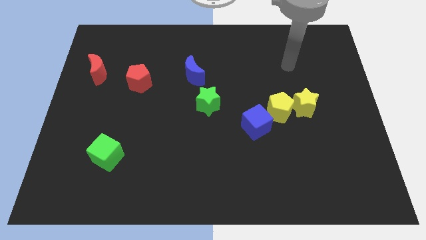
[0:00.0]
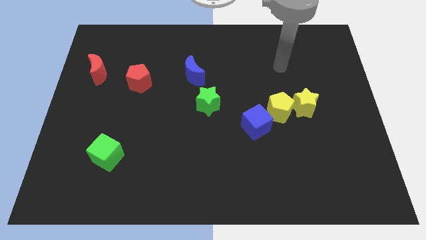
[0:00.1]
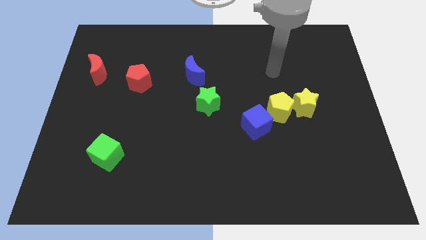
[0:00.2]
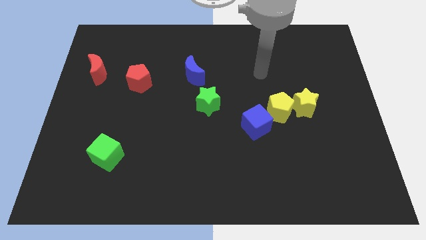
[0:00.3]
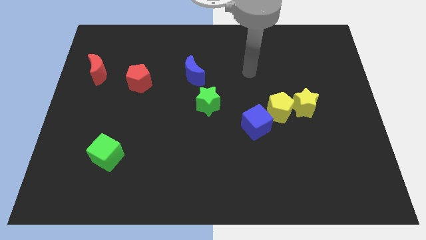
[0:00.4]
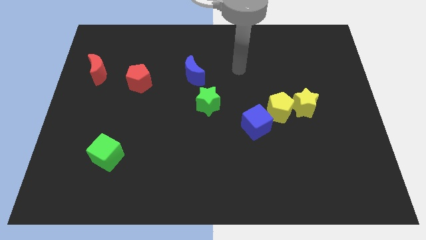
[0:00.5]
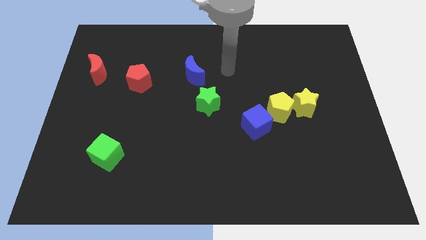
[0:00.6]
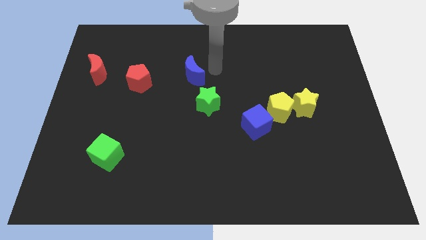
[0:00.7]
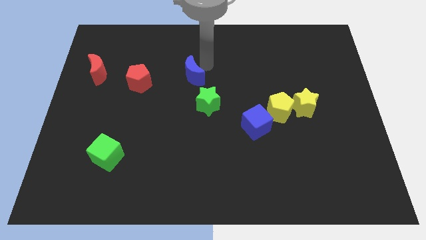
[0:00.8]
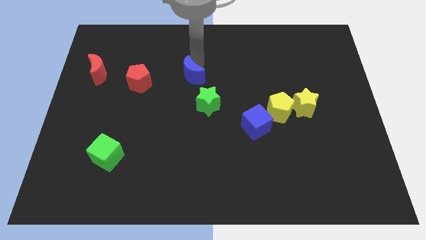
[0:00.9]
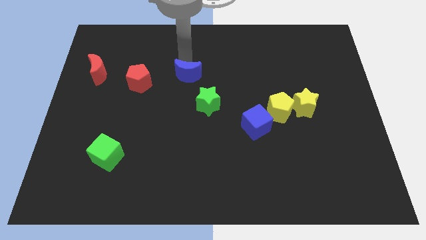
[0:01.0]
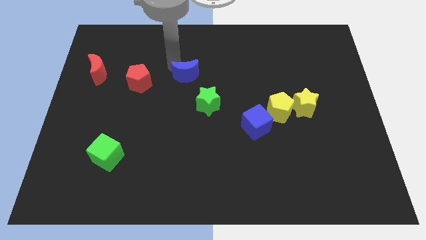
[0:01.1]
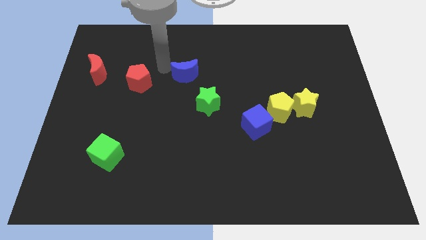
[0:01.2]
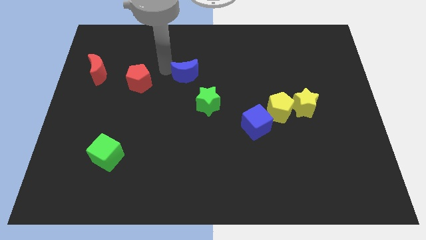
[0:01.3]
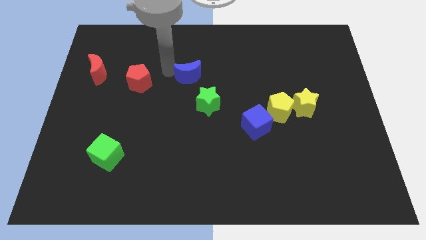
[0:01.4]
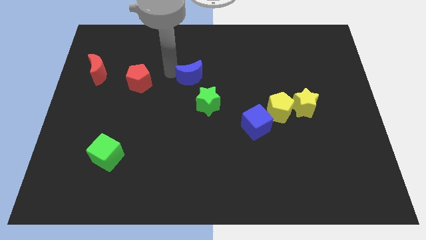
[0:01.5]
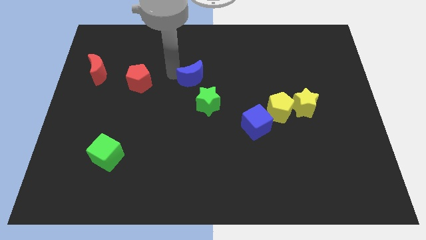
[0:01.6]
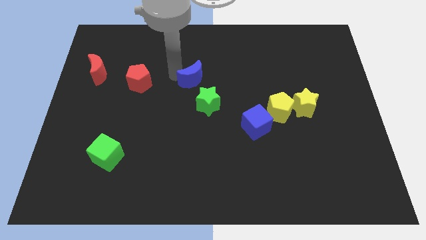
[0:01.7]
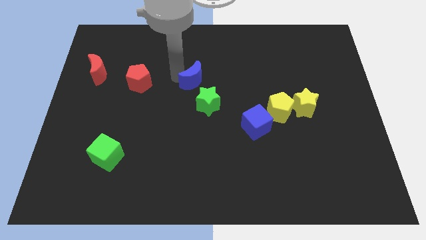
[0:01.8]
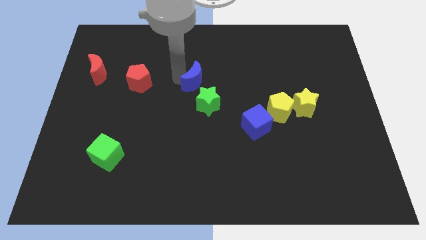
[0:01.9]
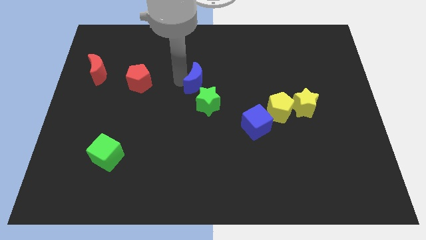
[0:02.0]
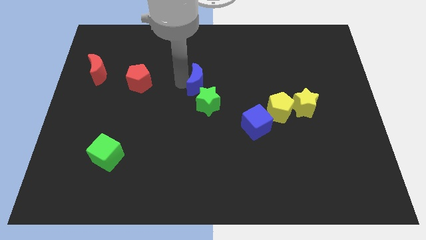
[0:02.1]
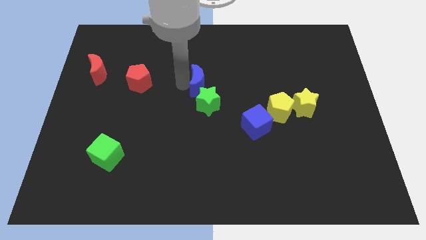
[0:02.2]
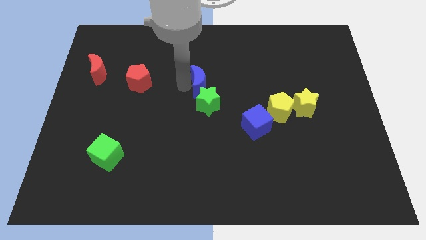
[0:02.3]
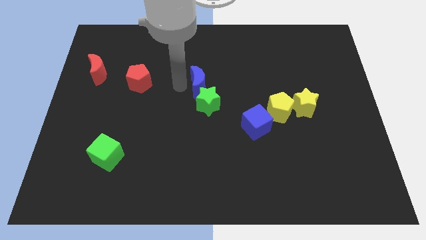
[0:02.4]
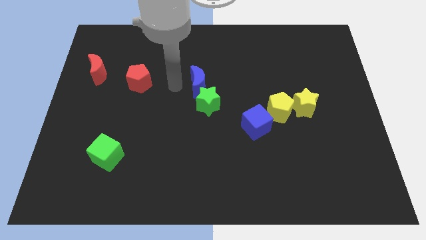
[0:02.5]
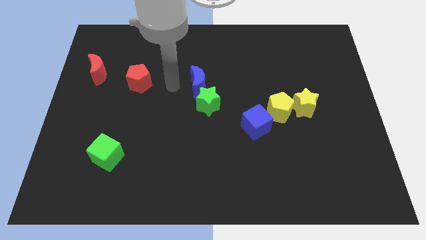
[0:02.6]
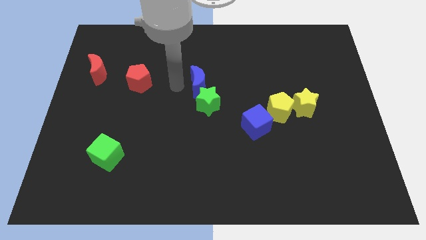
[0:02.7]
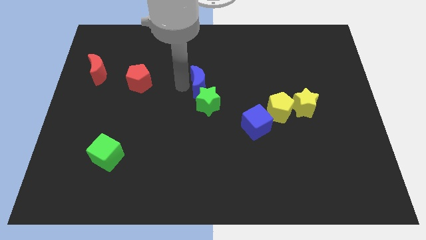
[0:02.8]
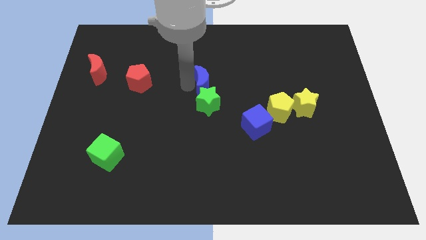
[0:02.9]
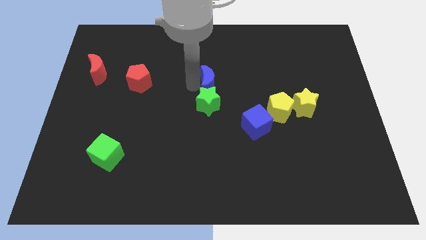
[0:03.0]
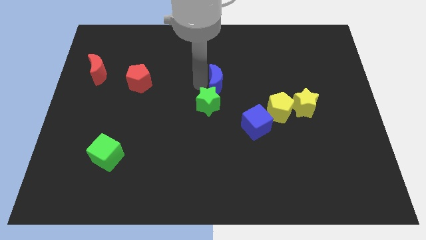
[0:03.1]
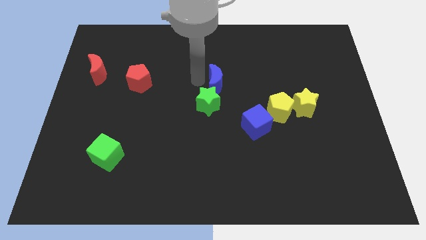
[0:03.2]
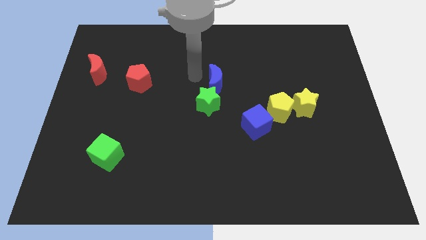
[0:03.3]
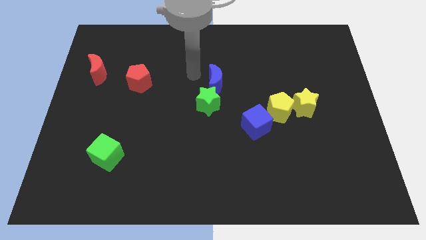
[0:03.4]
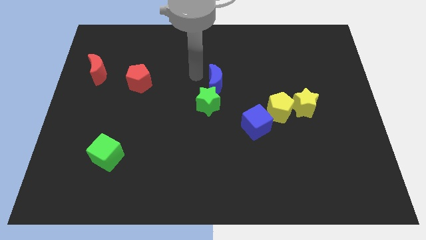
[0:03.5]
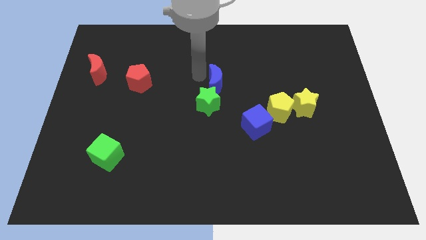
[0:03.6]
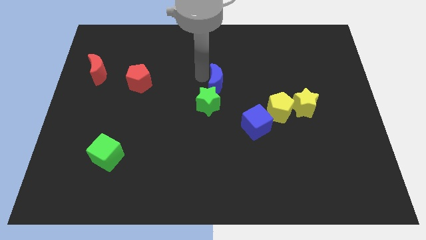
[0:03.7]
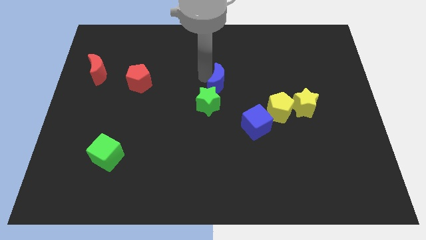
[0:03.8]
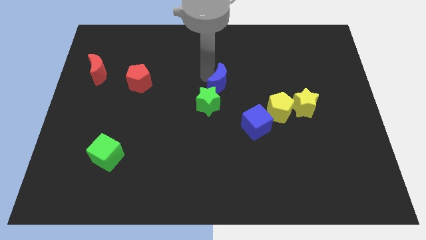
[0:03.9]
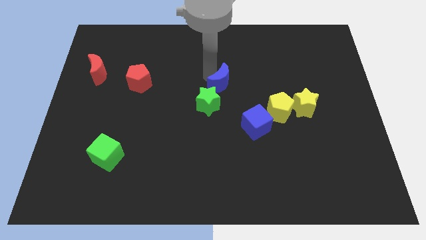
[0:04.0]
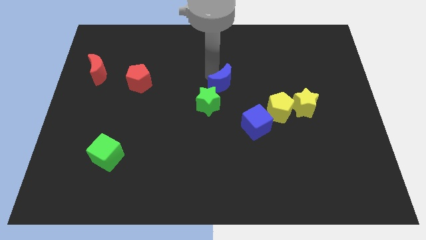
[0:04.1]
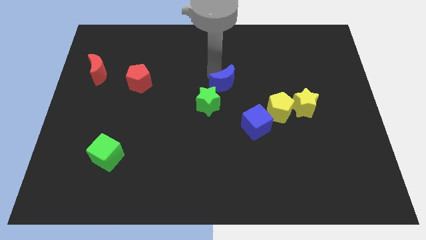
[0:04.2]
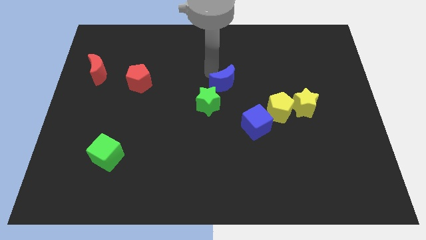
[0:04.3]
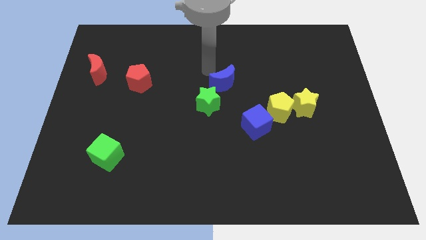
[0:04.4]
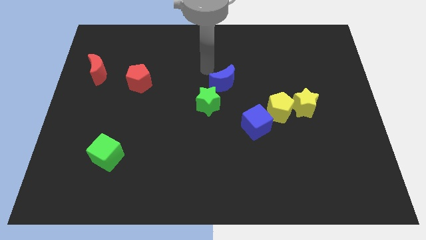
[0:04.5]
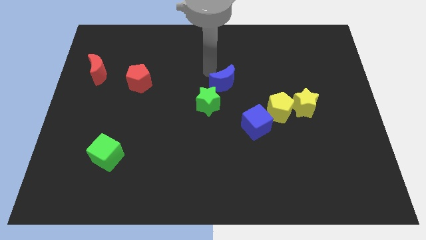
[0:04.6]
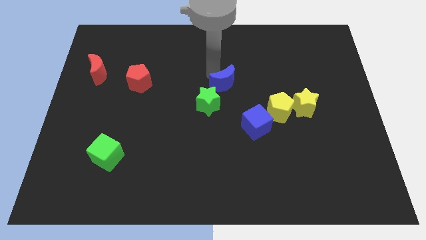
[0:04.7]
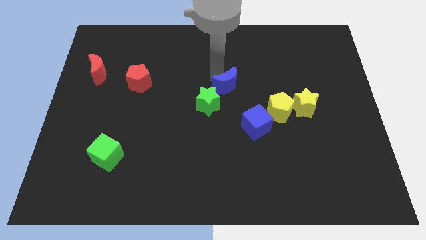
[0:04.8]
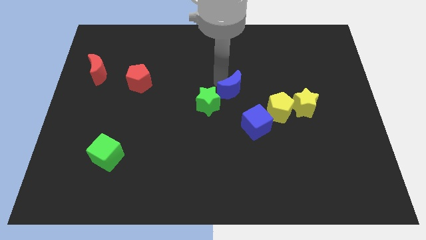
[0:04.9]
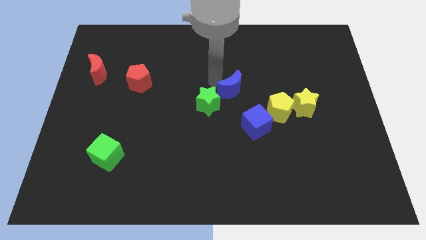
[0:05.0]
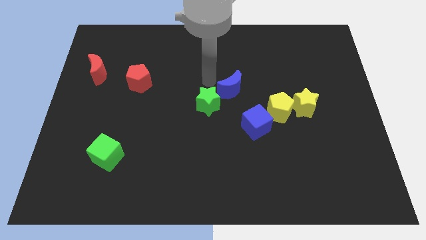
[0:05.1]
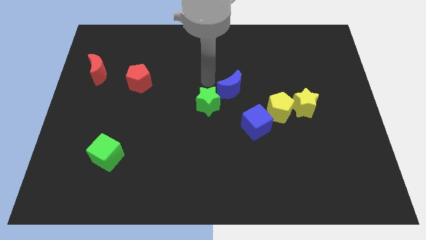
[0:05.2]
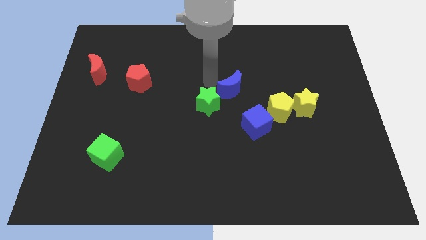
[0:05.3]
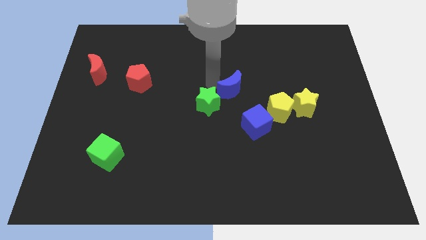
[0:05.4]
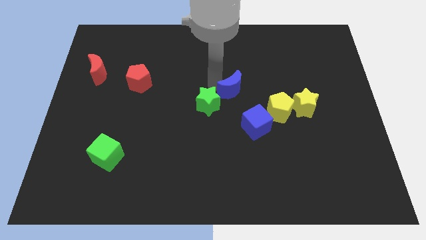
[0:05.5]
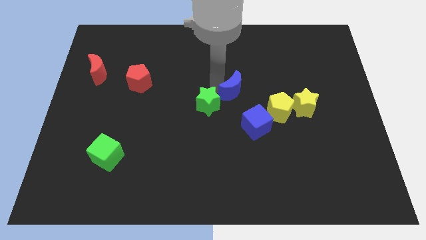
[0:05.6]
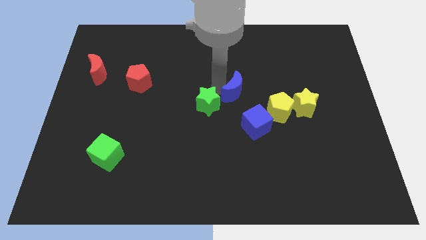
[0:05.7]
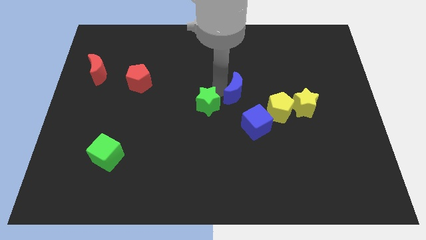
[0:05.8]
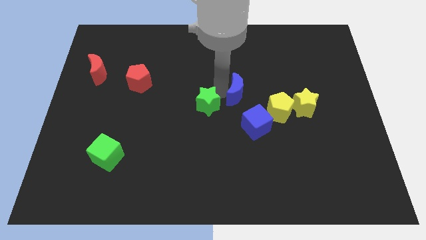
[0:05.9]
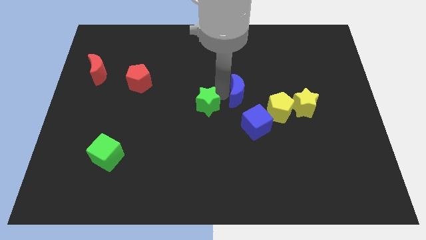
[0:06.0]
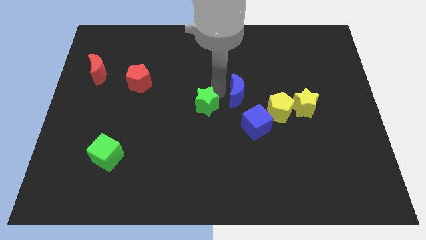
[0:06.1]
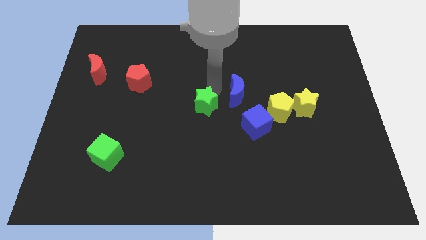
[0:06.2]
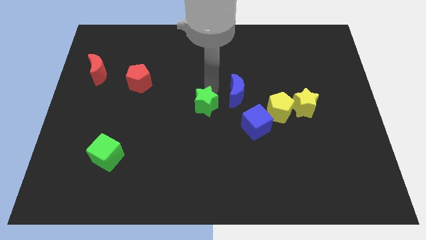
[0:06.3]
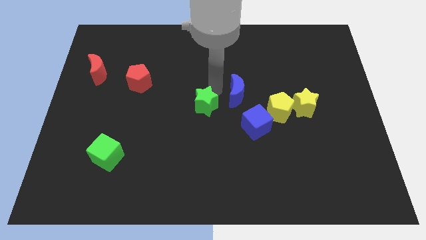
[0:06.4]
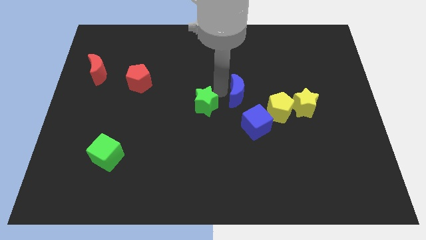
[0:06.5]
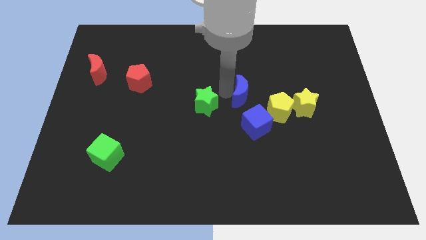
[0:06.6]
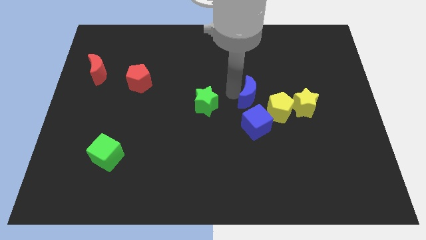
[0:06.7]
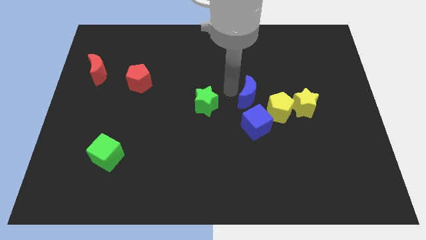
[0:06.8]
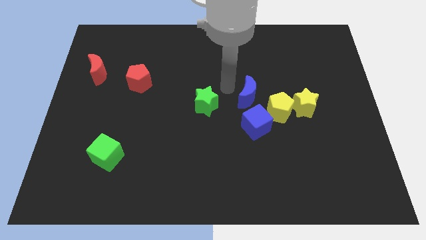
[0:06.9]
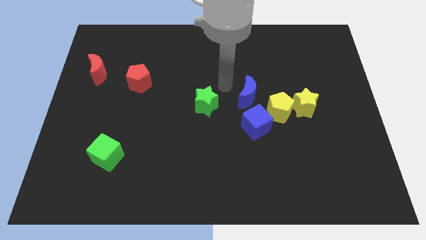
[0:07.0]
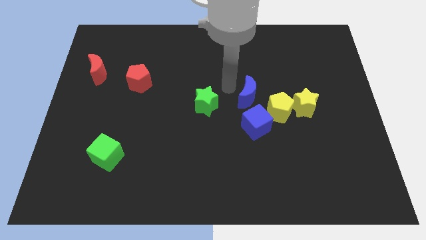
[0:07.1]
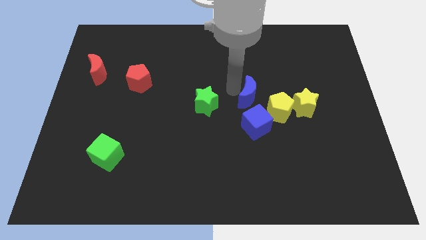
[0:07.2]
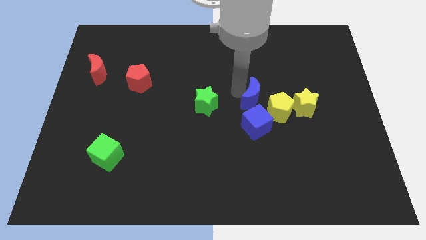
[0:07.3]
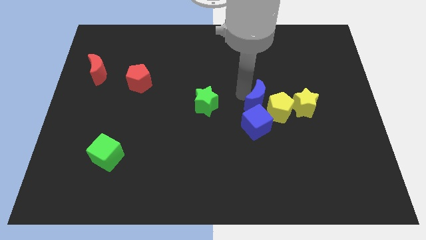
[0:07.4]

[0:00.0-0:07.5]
push the blue moon close to the yellow pentagon

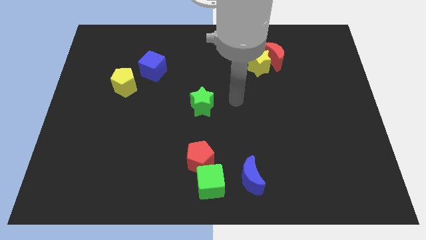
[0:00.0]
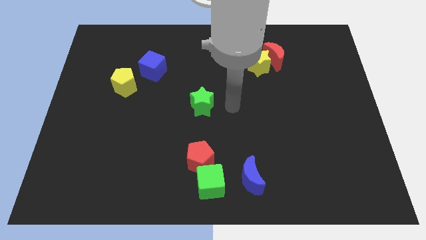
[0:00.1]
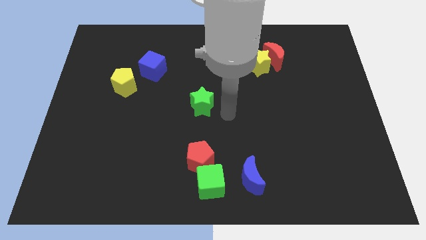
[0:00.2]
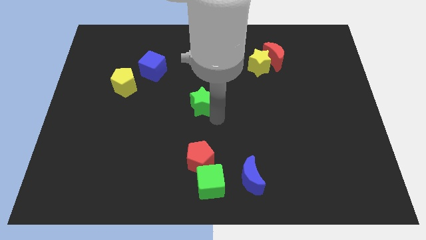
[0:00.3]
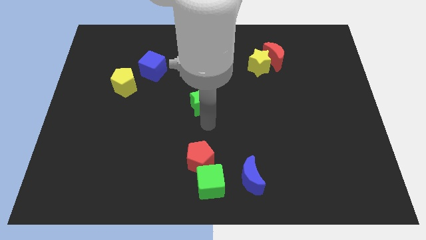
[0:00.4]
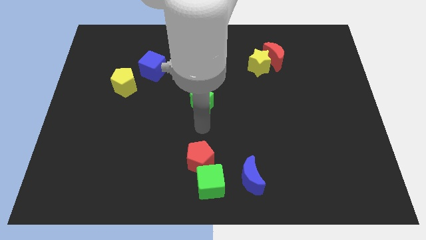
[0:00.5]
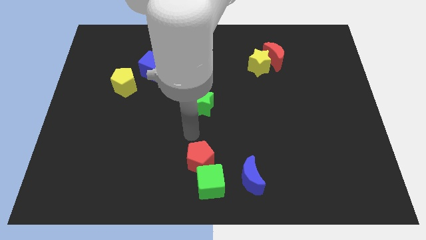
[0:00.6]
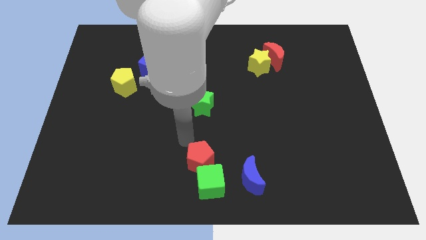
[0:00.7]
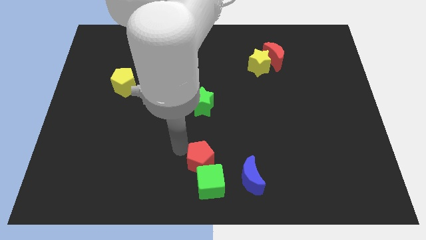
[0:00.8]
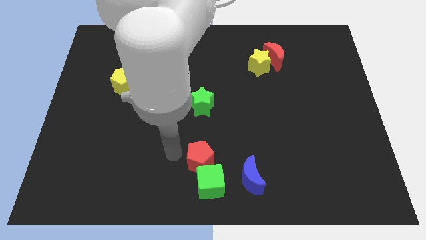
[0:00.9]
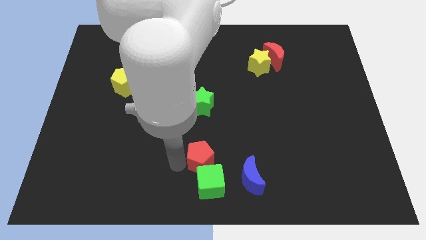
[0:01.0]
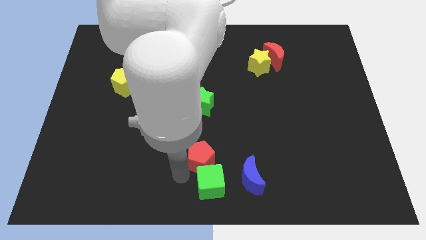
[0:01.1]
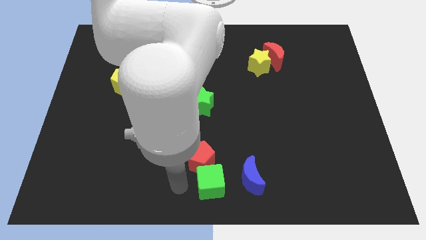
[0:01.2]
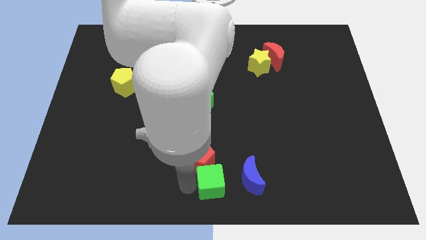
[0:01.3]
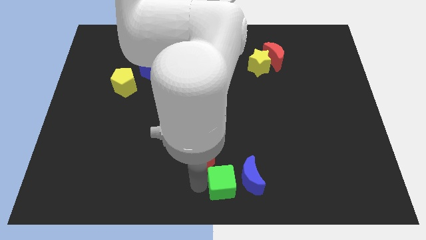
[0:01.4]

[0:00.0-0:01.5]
slide the green cube to the blue moon
